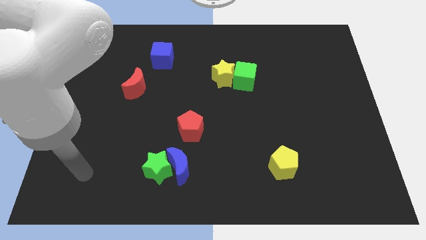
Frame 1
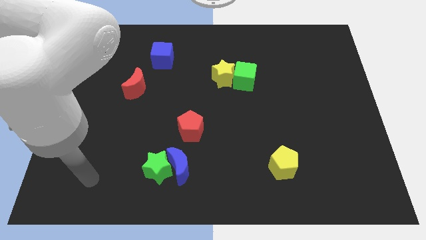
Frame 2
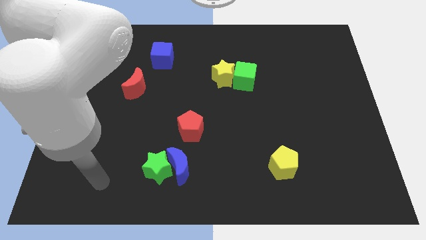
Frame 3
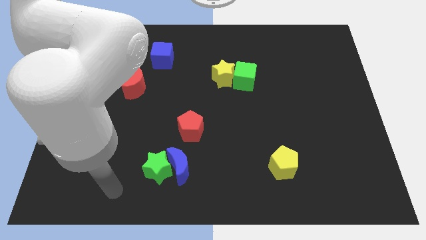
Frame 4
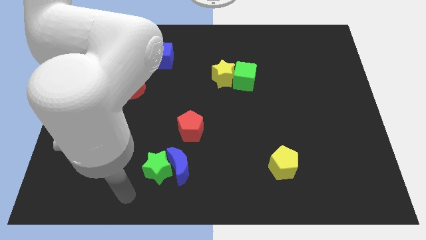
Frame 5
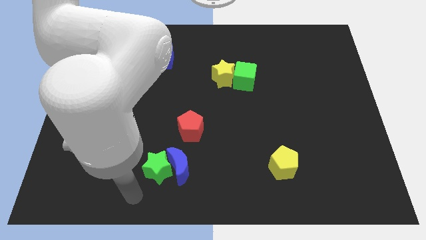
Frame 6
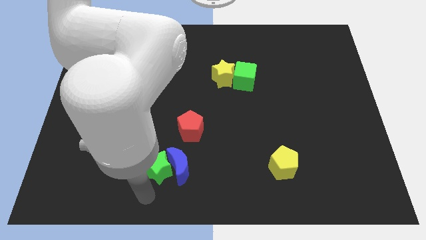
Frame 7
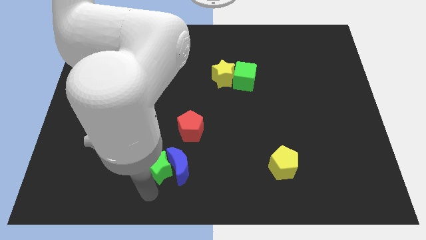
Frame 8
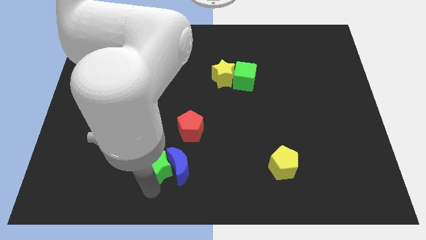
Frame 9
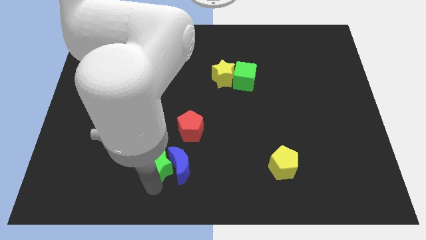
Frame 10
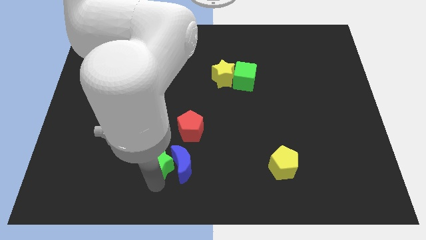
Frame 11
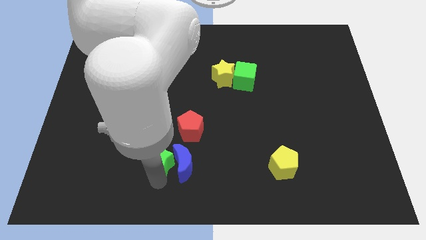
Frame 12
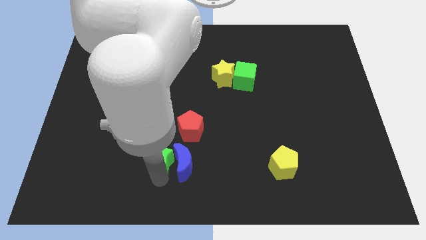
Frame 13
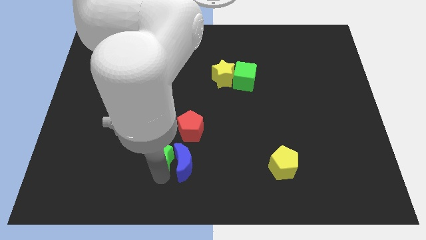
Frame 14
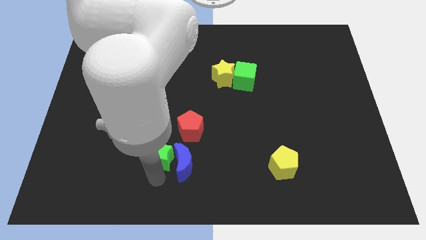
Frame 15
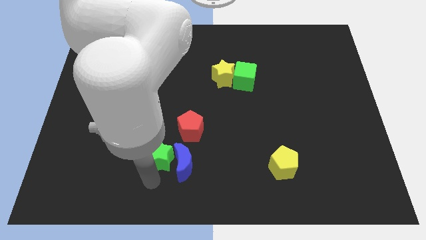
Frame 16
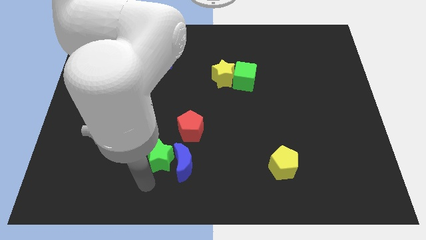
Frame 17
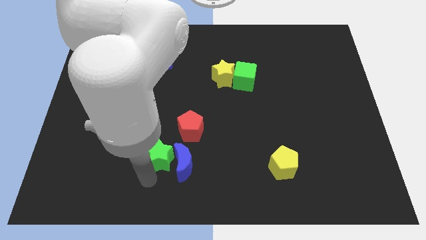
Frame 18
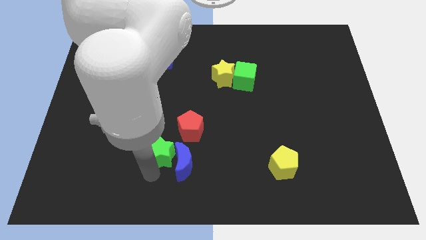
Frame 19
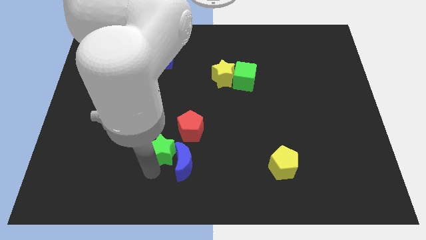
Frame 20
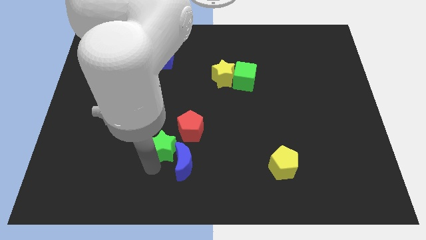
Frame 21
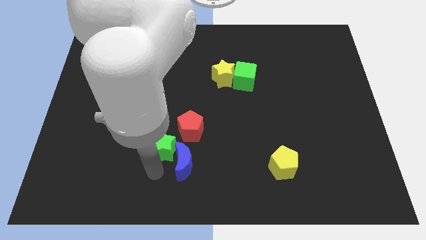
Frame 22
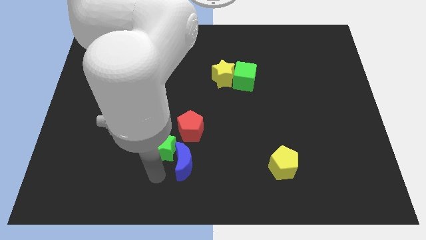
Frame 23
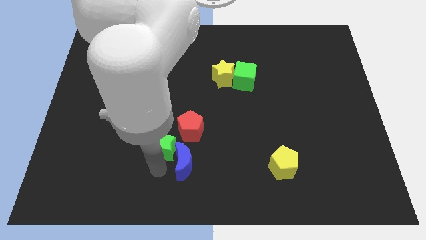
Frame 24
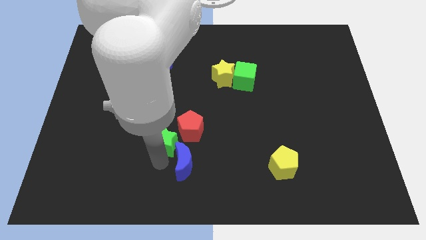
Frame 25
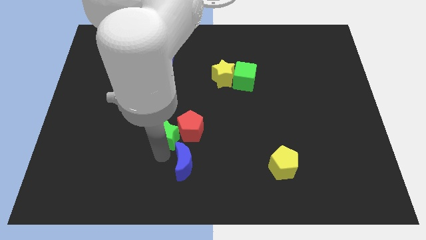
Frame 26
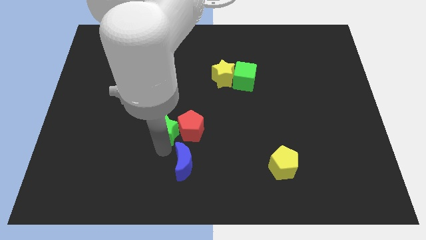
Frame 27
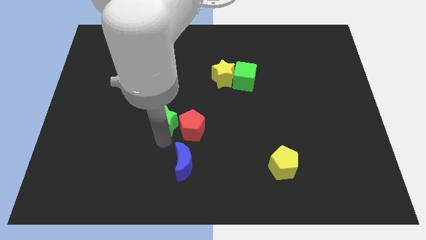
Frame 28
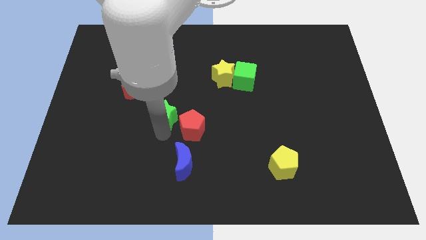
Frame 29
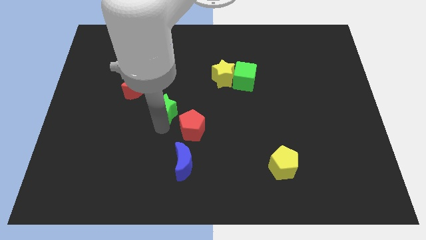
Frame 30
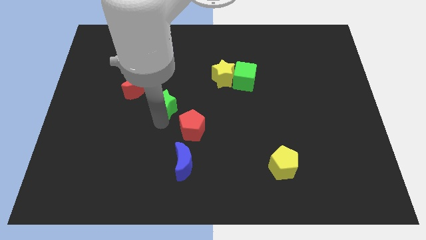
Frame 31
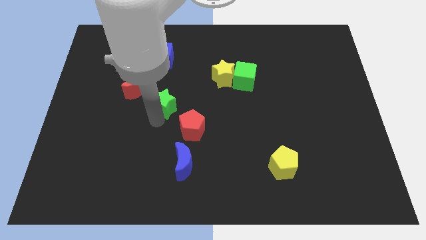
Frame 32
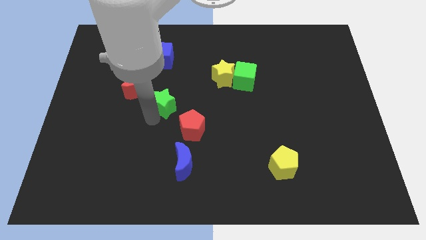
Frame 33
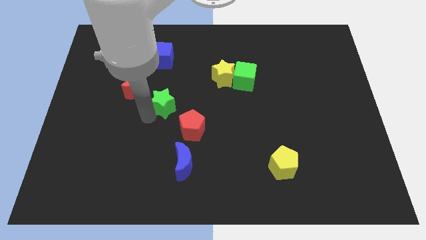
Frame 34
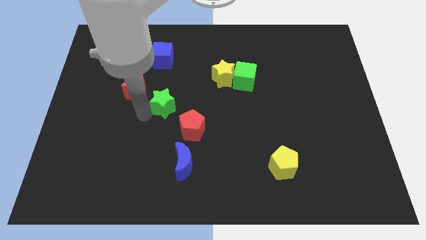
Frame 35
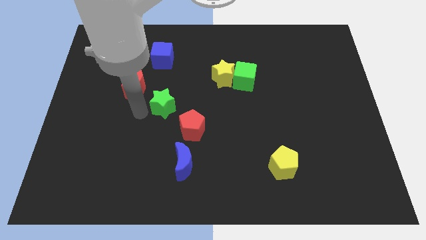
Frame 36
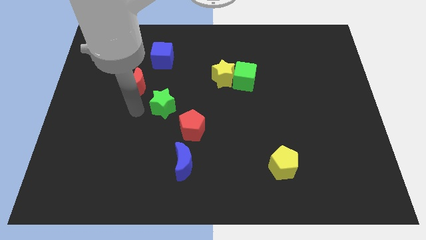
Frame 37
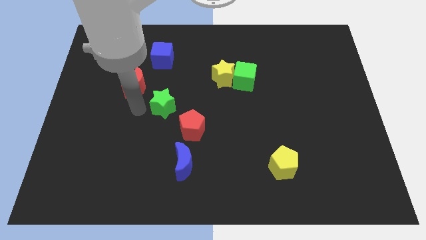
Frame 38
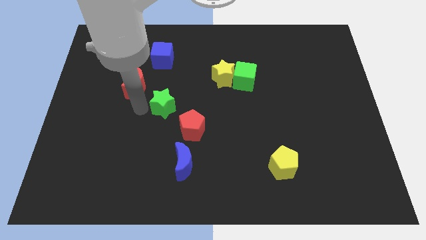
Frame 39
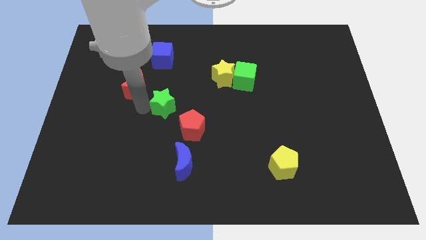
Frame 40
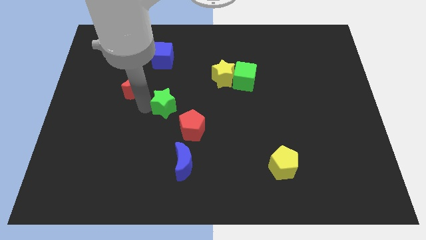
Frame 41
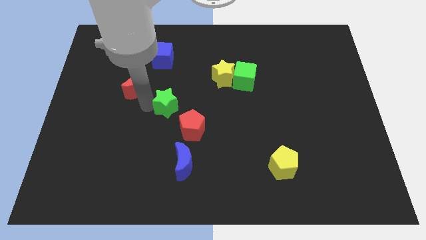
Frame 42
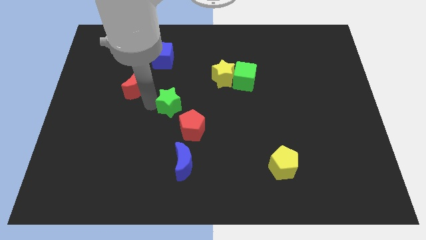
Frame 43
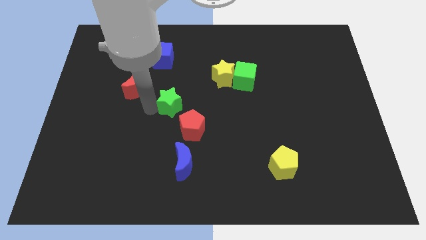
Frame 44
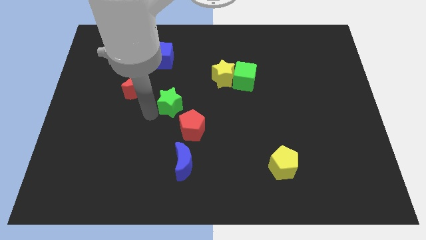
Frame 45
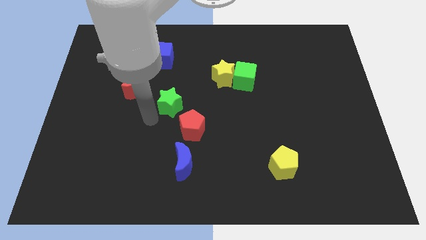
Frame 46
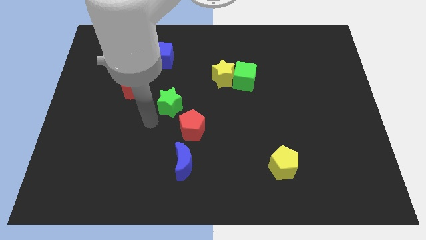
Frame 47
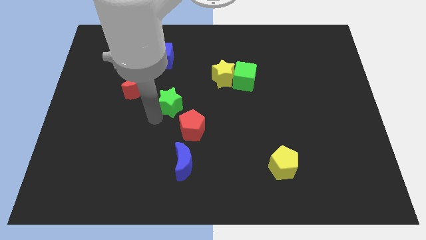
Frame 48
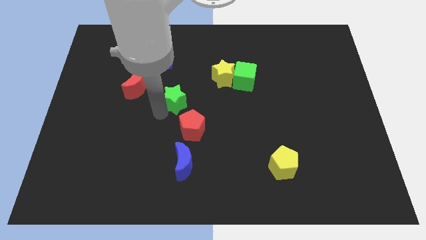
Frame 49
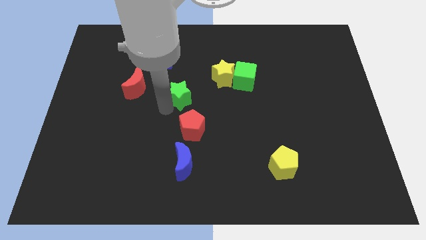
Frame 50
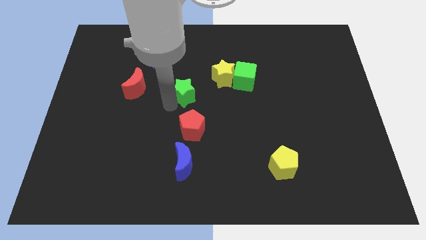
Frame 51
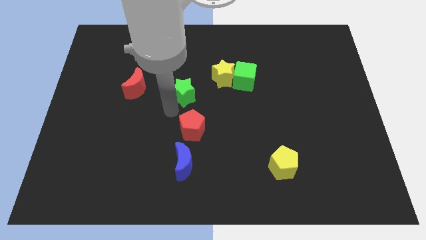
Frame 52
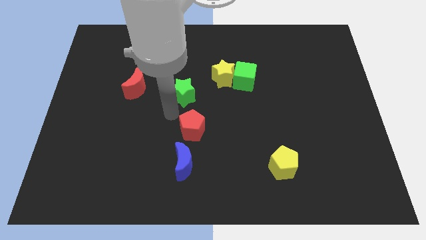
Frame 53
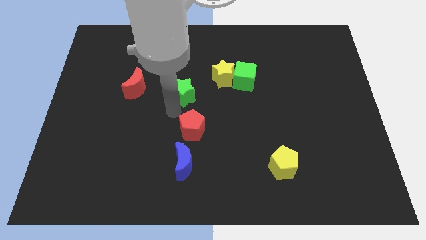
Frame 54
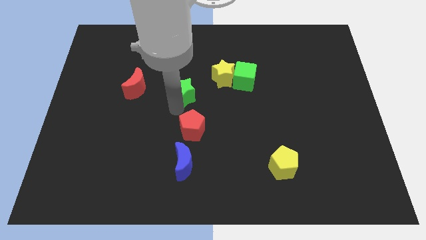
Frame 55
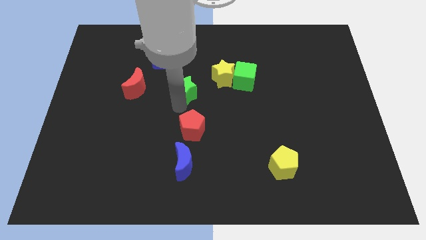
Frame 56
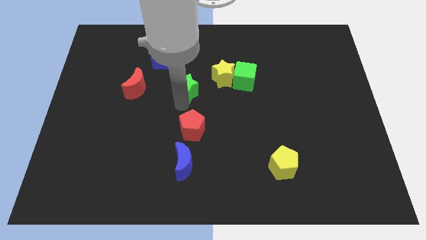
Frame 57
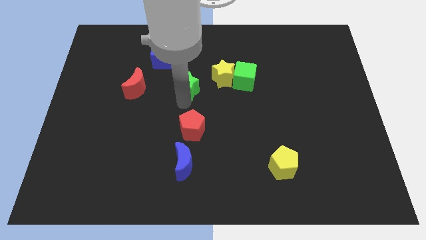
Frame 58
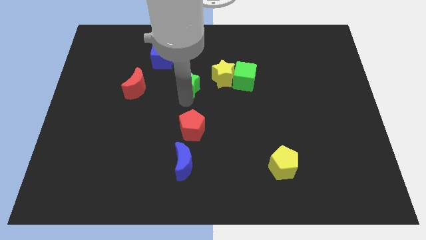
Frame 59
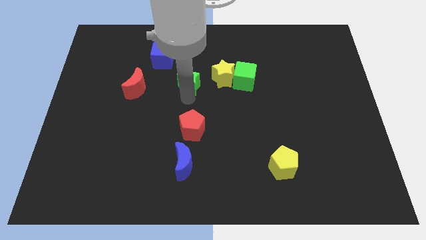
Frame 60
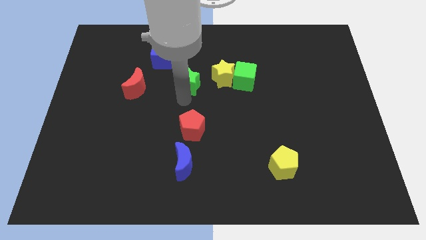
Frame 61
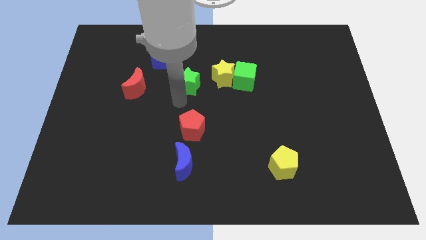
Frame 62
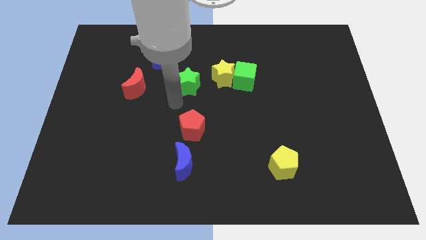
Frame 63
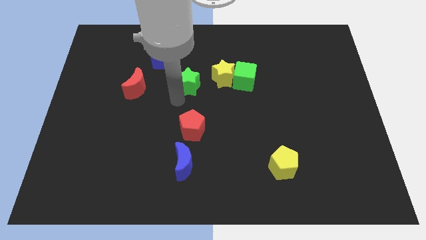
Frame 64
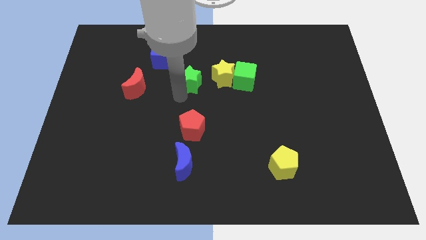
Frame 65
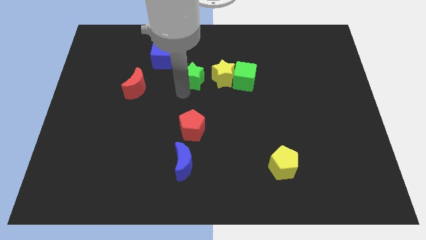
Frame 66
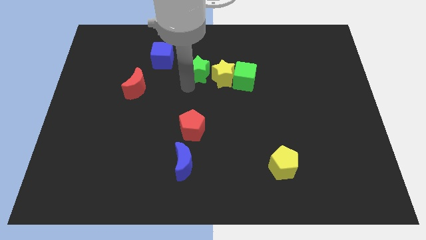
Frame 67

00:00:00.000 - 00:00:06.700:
push the green star just right of the blue cube

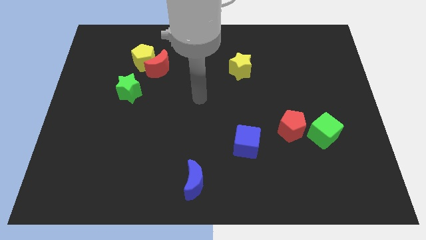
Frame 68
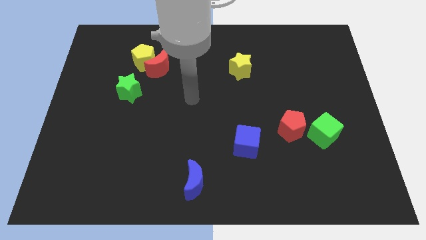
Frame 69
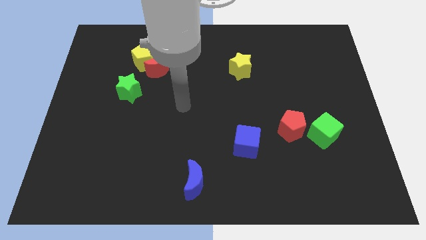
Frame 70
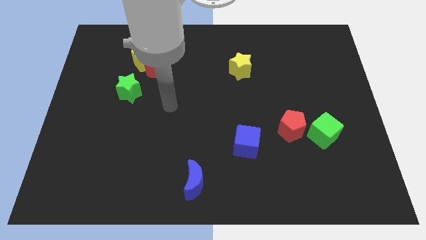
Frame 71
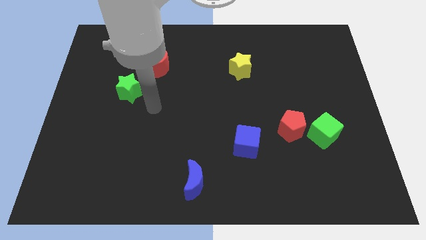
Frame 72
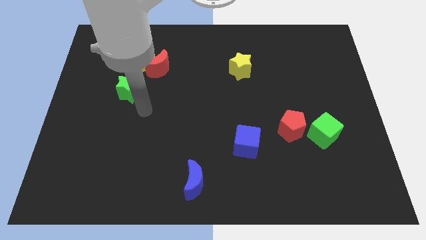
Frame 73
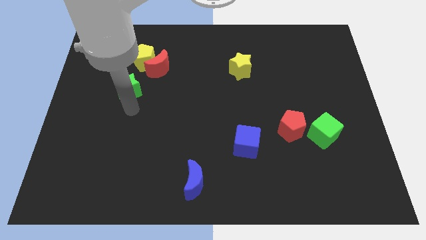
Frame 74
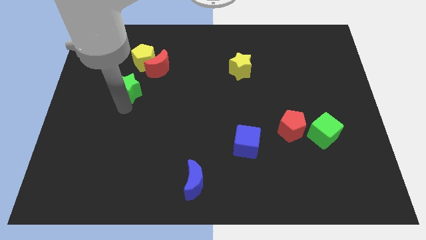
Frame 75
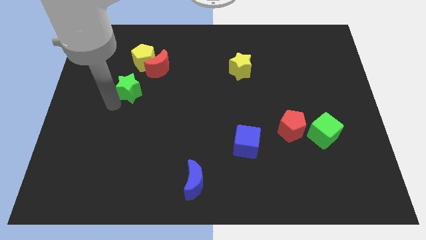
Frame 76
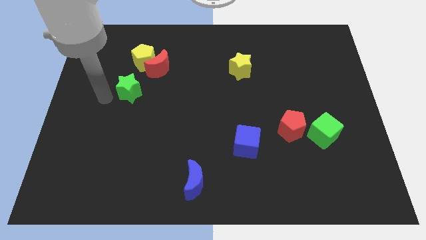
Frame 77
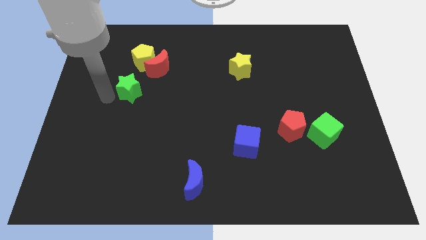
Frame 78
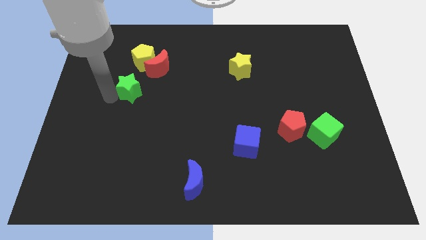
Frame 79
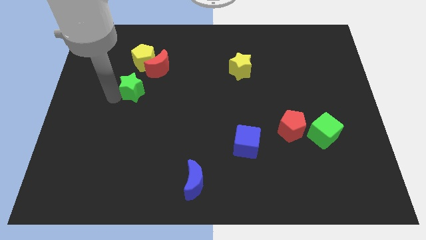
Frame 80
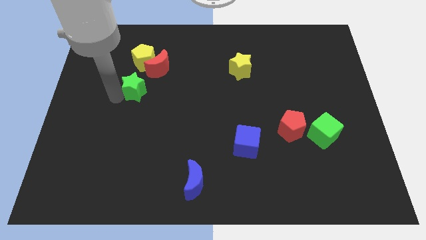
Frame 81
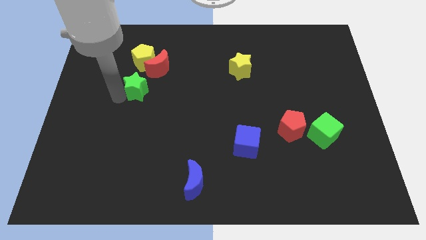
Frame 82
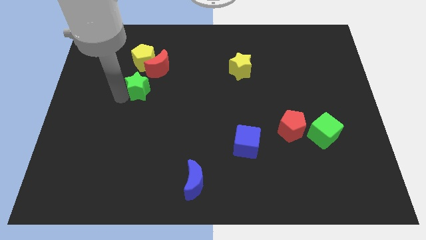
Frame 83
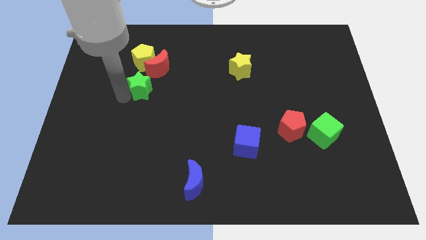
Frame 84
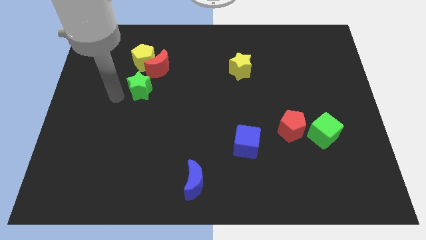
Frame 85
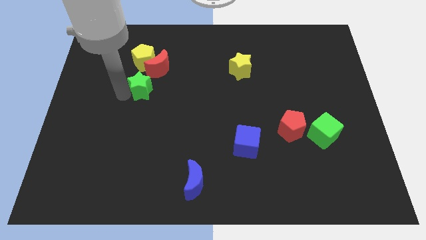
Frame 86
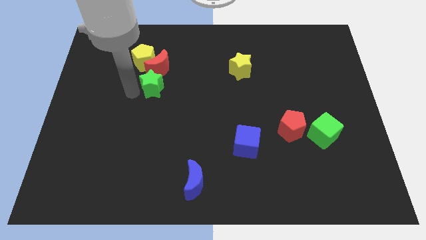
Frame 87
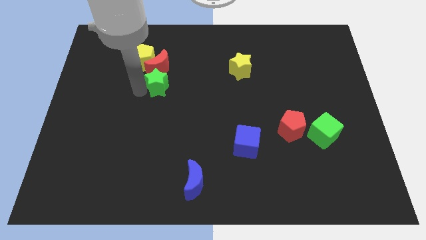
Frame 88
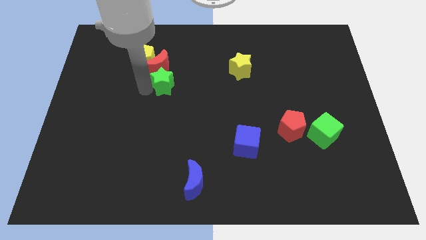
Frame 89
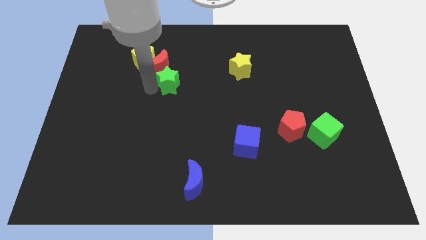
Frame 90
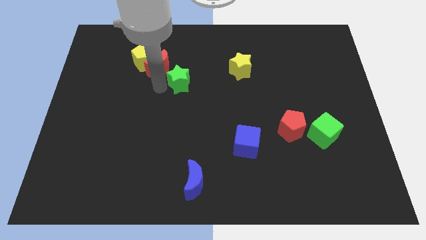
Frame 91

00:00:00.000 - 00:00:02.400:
put the green star just right of the red moon
